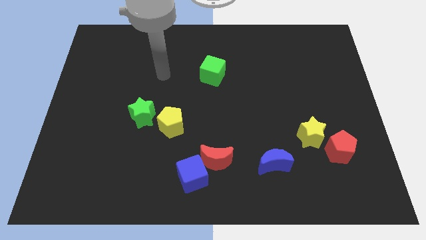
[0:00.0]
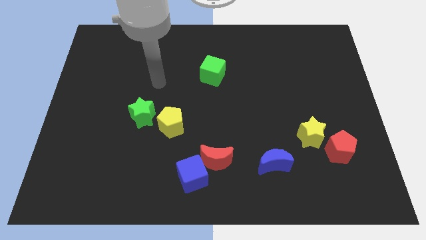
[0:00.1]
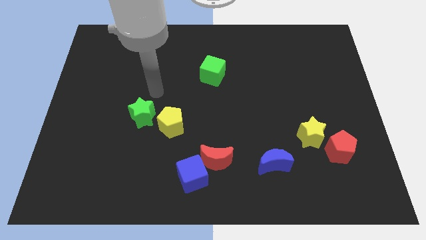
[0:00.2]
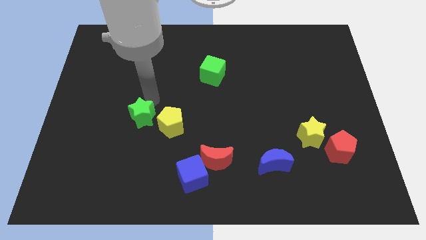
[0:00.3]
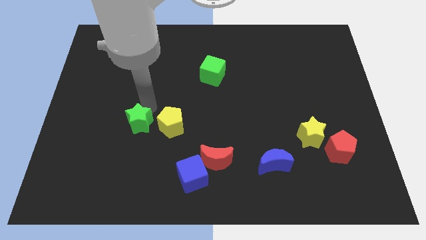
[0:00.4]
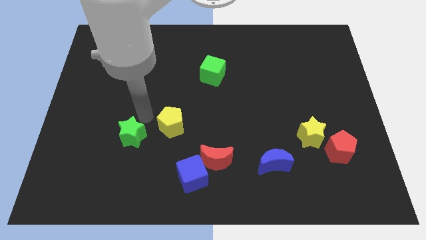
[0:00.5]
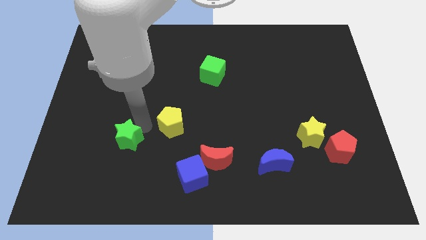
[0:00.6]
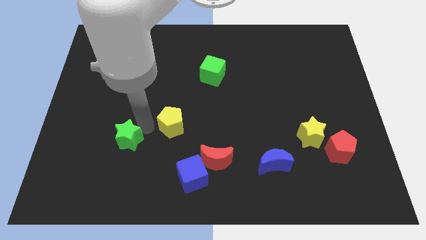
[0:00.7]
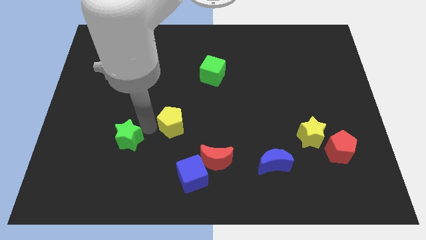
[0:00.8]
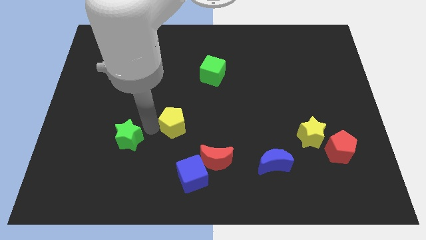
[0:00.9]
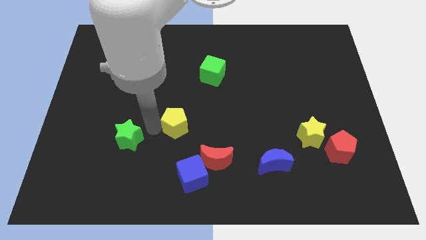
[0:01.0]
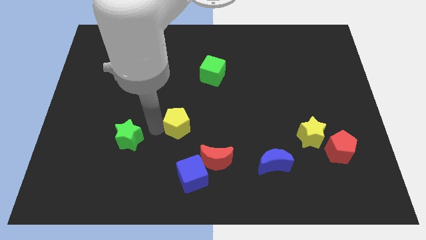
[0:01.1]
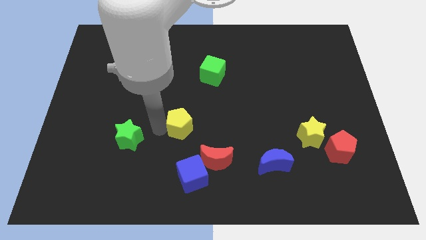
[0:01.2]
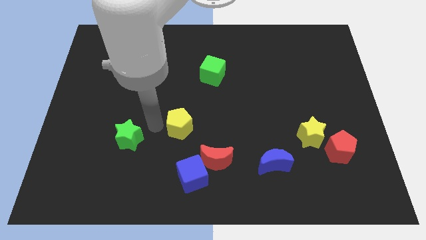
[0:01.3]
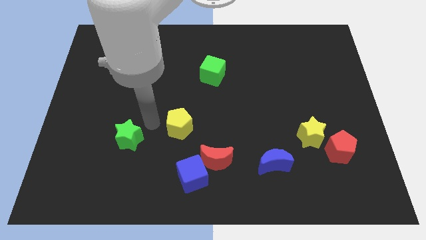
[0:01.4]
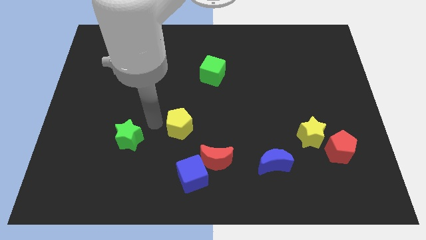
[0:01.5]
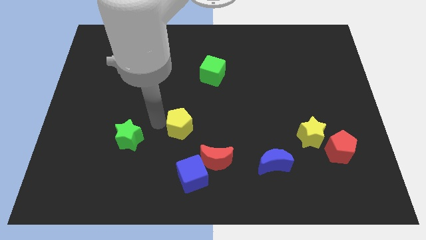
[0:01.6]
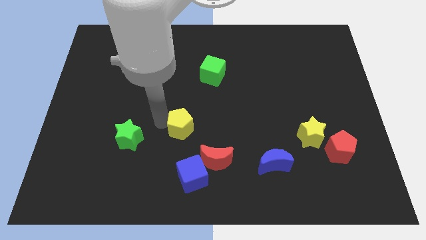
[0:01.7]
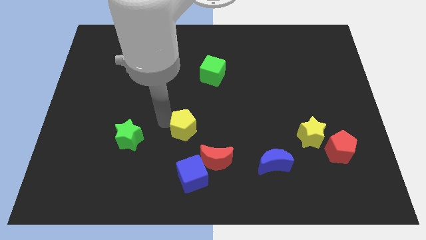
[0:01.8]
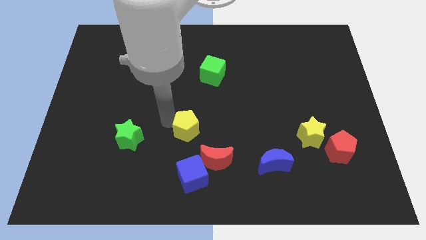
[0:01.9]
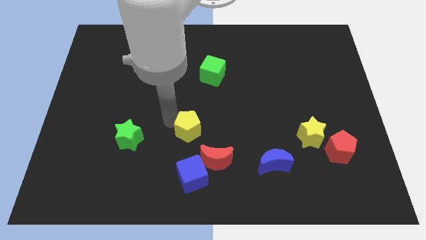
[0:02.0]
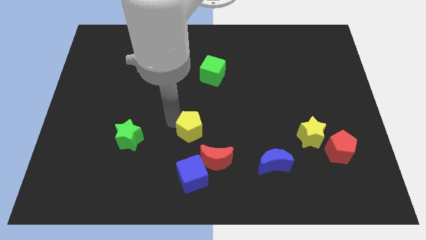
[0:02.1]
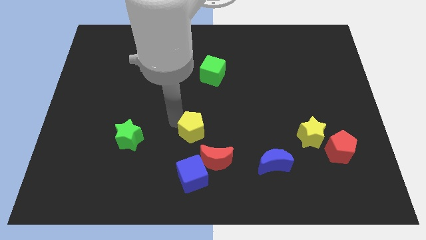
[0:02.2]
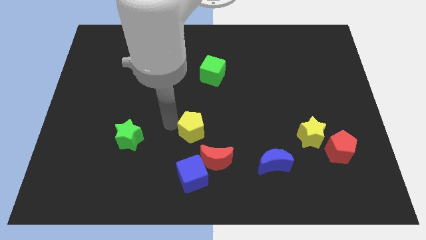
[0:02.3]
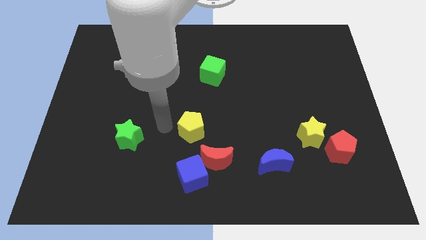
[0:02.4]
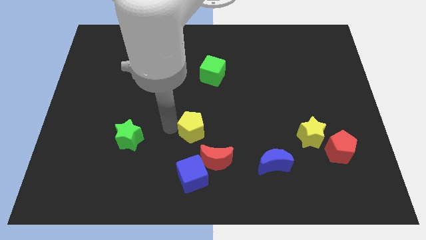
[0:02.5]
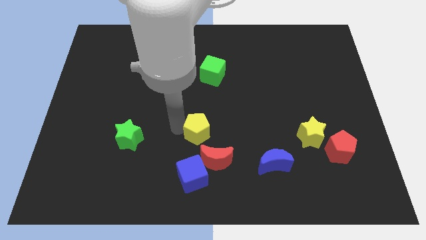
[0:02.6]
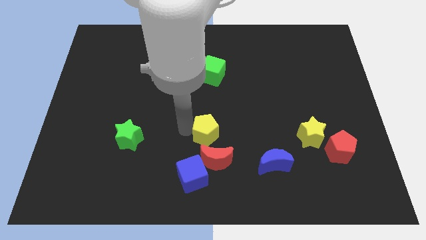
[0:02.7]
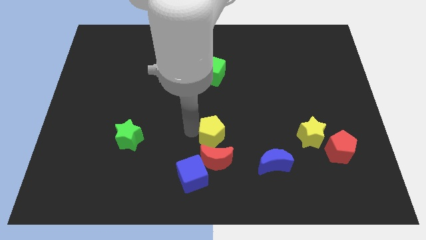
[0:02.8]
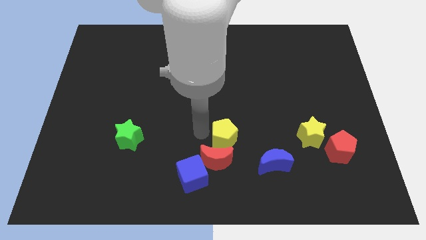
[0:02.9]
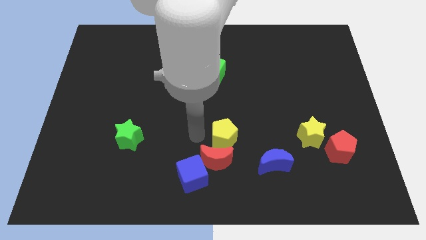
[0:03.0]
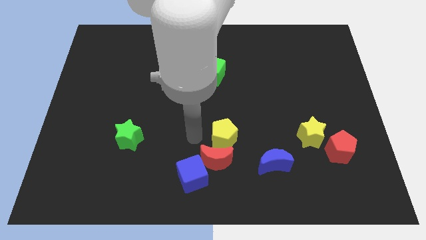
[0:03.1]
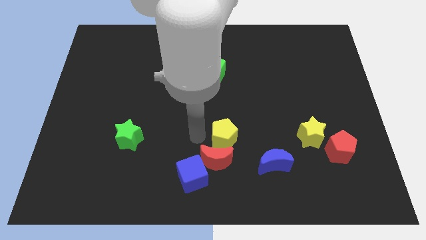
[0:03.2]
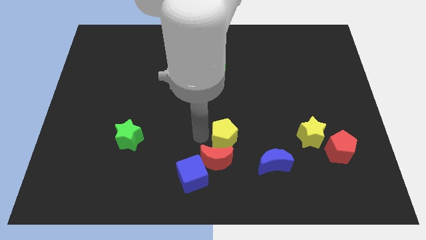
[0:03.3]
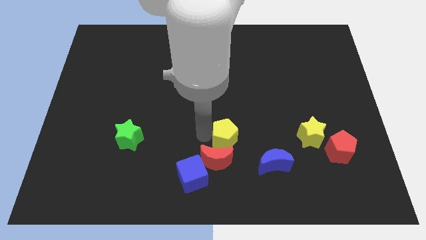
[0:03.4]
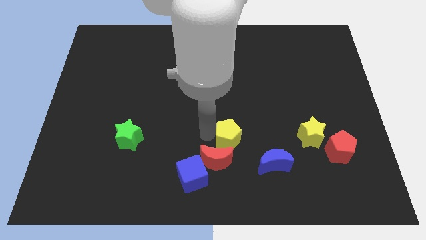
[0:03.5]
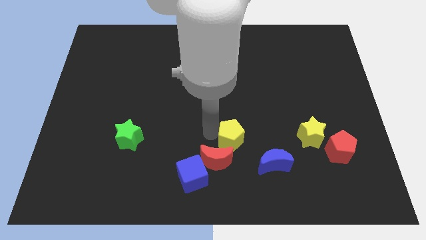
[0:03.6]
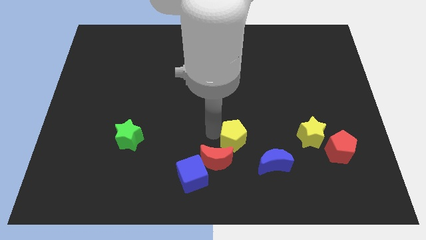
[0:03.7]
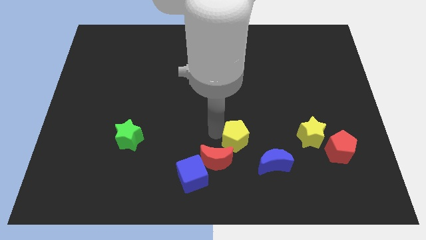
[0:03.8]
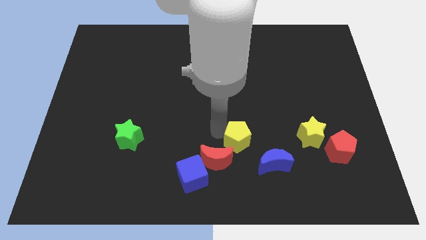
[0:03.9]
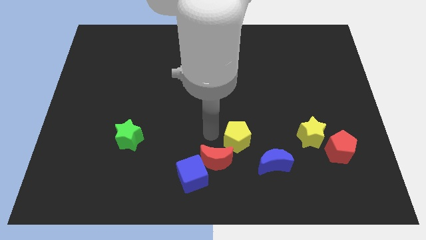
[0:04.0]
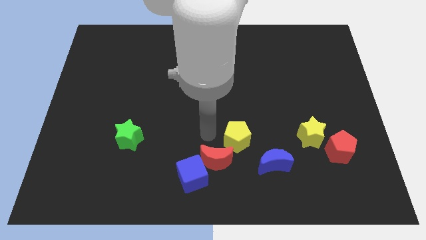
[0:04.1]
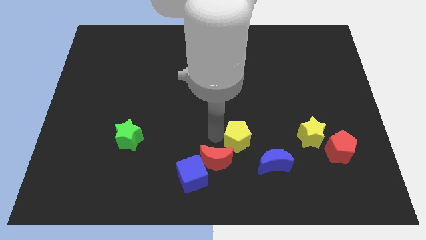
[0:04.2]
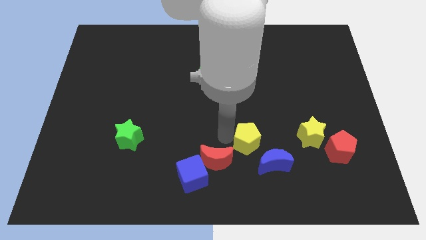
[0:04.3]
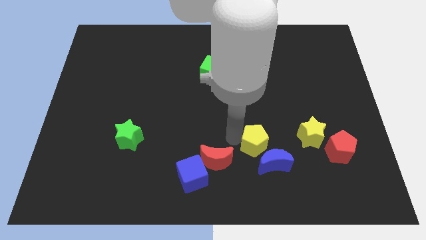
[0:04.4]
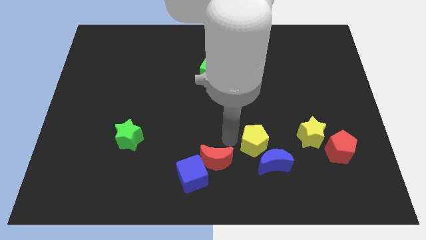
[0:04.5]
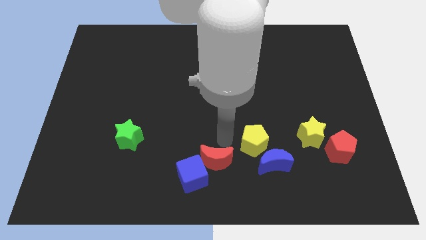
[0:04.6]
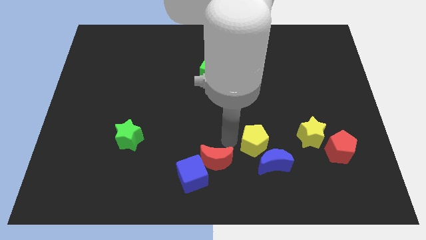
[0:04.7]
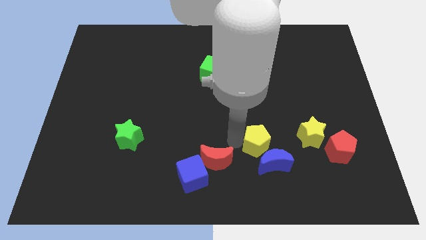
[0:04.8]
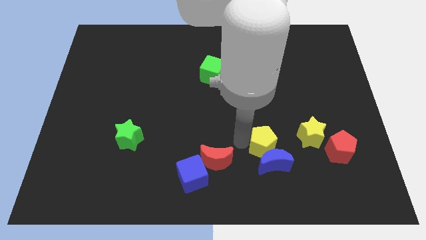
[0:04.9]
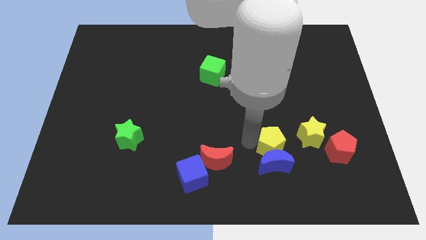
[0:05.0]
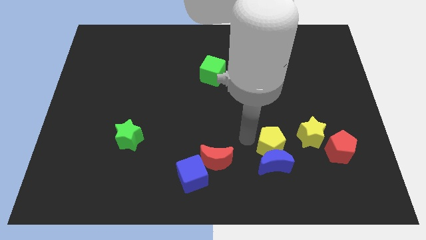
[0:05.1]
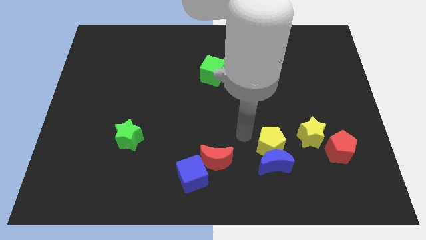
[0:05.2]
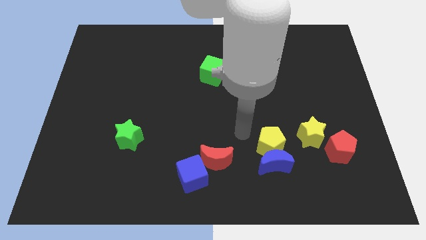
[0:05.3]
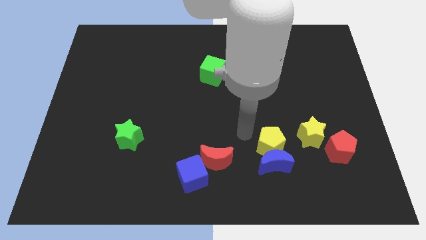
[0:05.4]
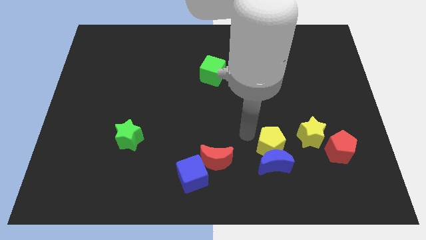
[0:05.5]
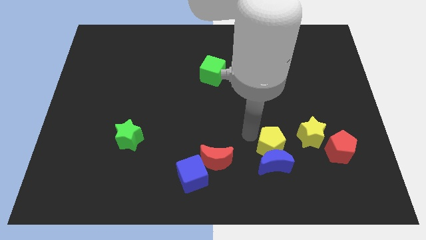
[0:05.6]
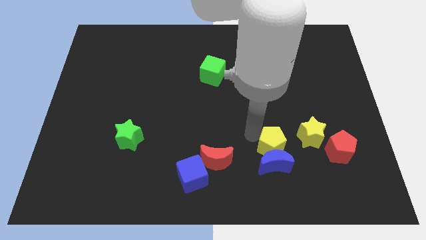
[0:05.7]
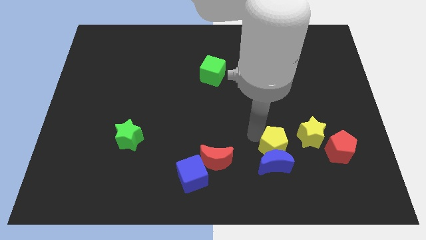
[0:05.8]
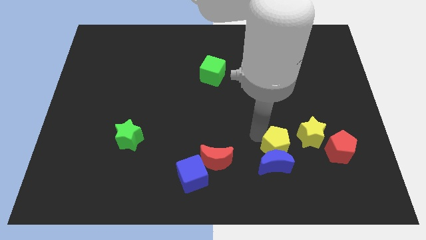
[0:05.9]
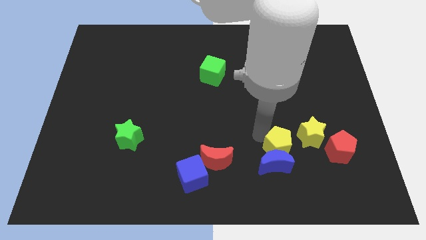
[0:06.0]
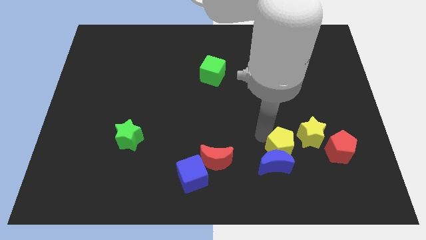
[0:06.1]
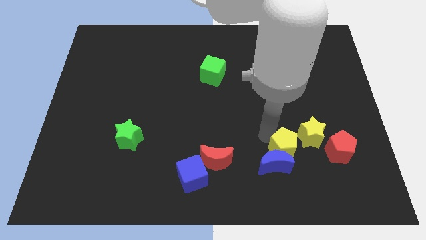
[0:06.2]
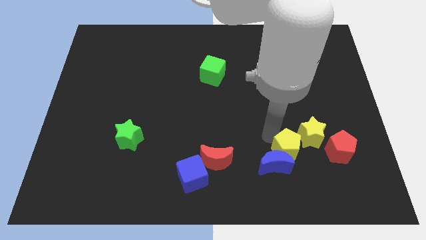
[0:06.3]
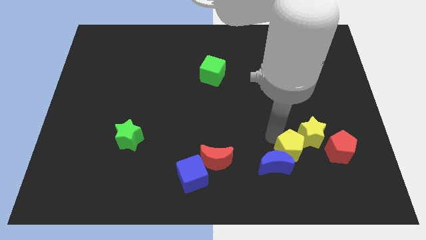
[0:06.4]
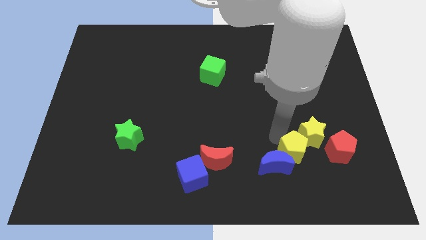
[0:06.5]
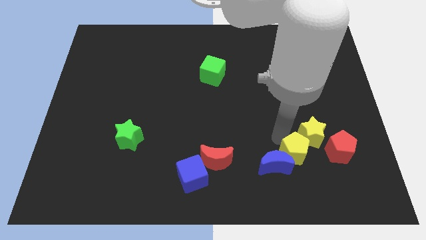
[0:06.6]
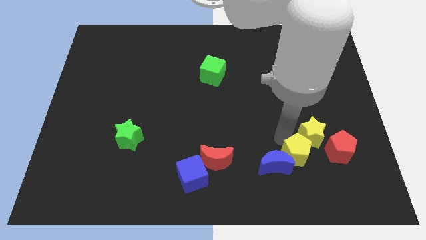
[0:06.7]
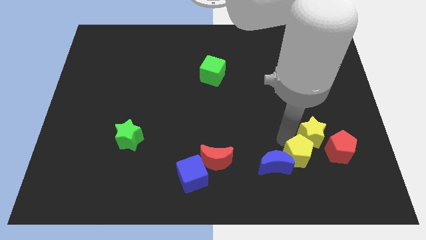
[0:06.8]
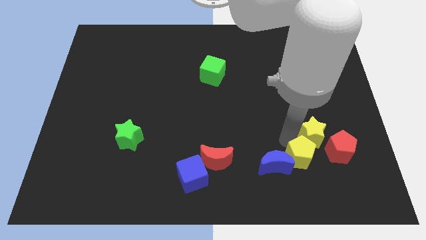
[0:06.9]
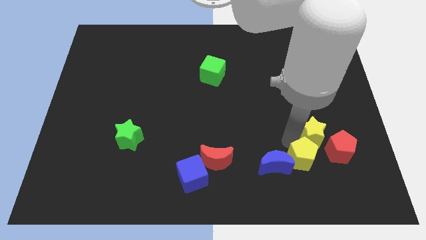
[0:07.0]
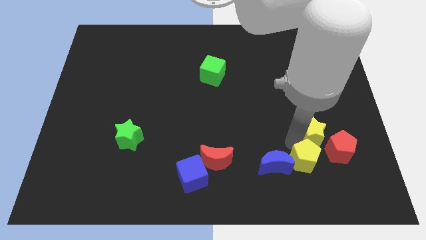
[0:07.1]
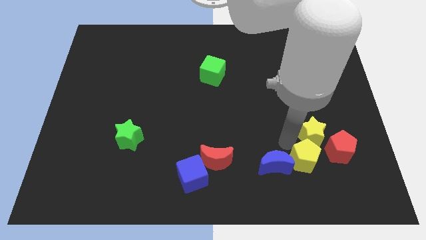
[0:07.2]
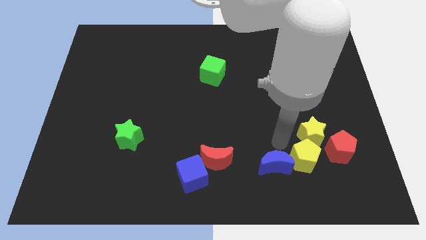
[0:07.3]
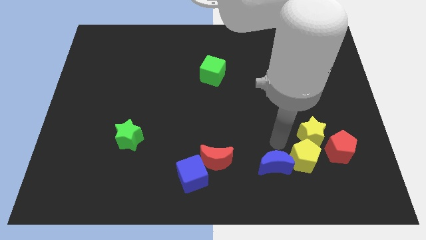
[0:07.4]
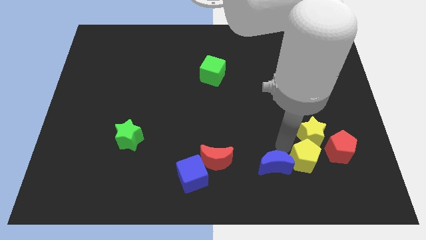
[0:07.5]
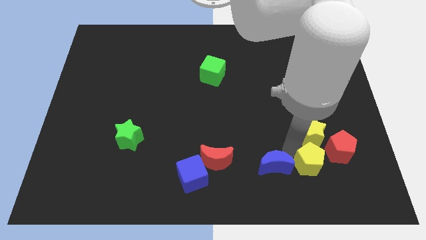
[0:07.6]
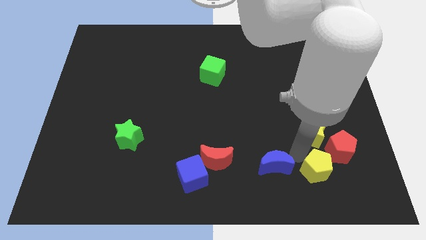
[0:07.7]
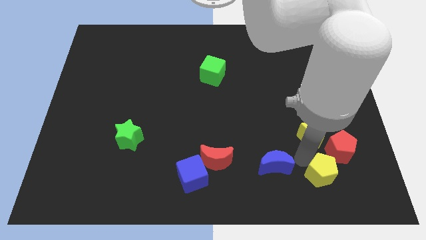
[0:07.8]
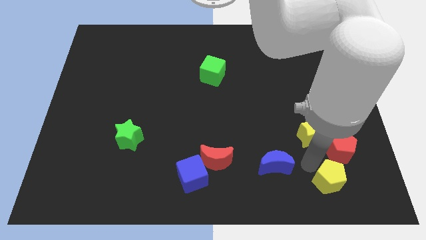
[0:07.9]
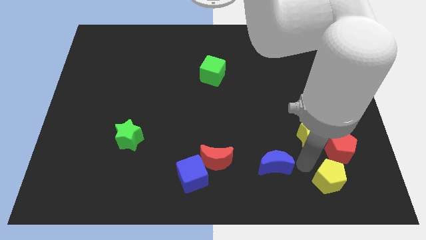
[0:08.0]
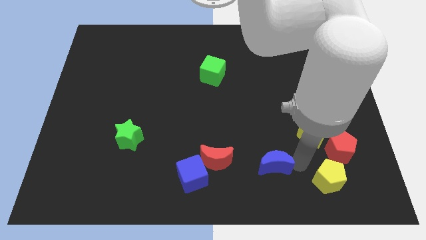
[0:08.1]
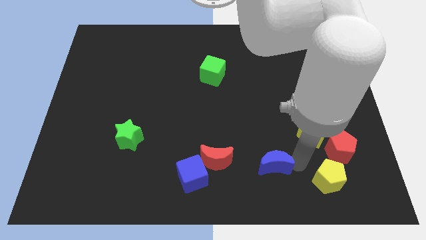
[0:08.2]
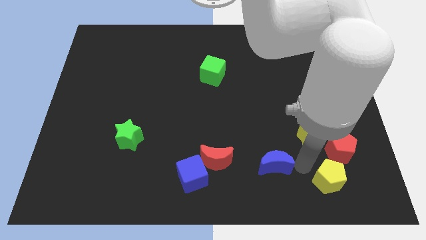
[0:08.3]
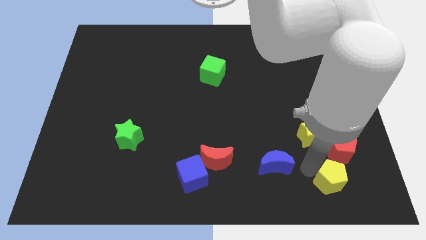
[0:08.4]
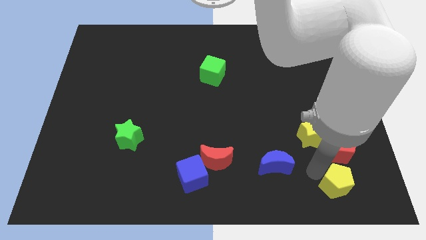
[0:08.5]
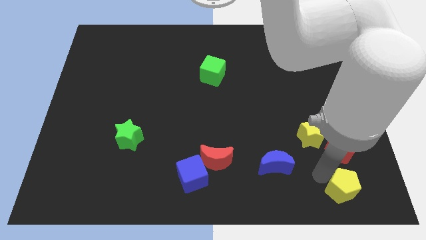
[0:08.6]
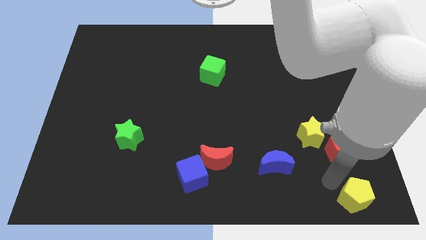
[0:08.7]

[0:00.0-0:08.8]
push the yellow pentagon to the bottom right
